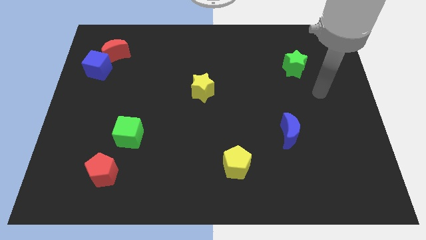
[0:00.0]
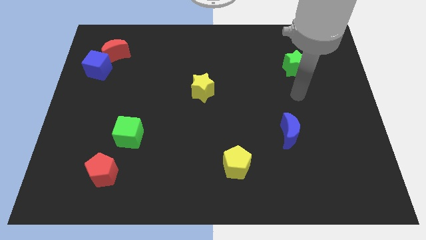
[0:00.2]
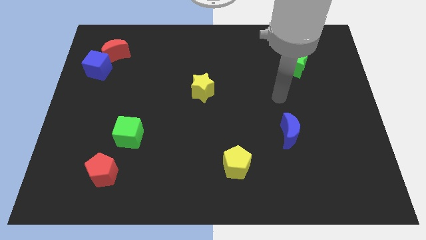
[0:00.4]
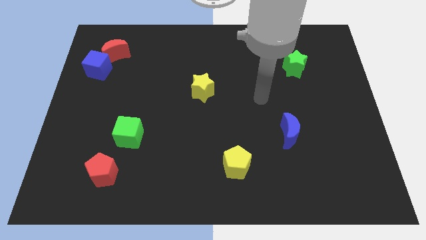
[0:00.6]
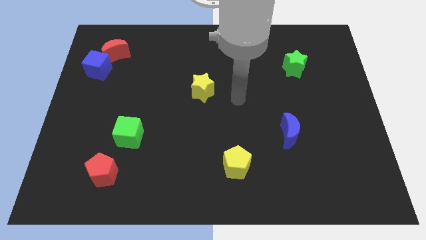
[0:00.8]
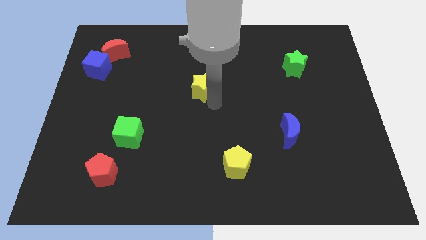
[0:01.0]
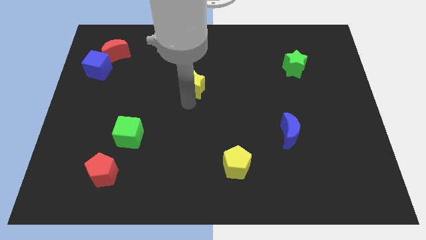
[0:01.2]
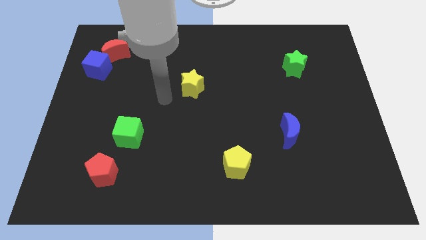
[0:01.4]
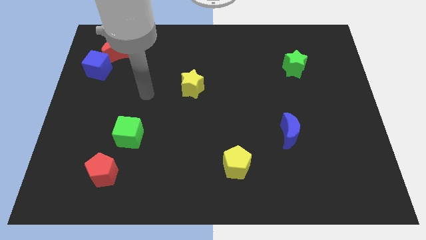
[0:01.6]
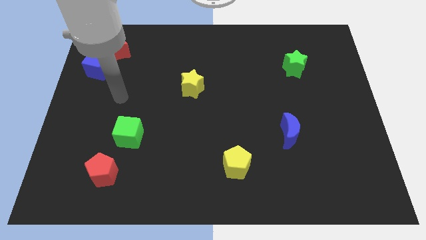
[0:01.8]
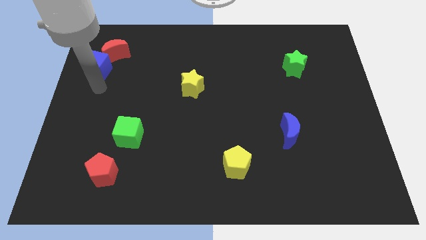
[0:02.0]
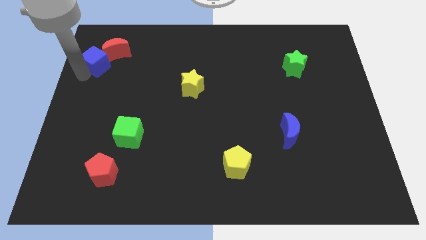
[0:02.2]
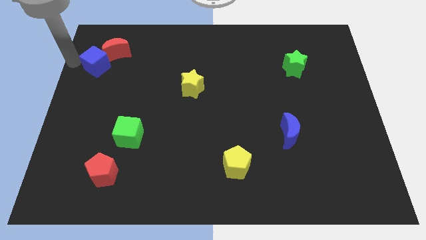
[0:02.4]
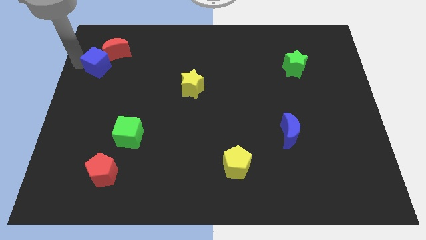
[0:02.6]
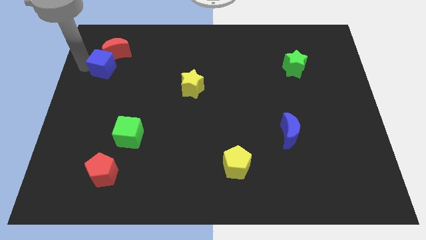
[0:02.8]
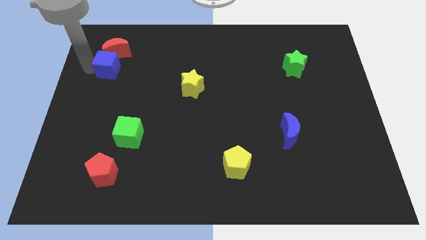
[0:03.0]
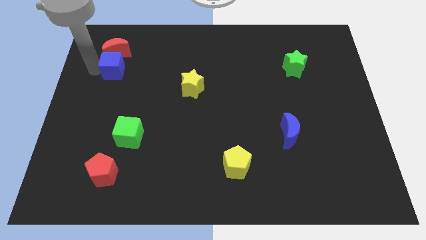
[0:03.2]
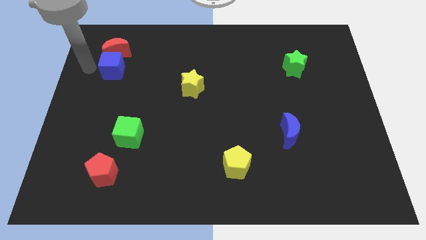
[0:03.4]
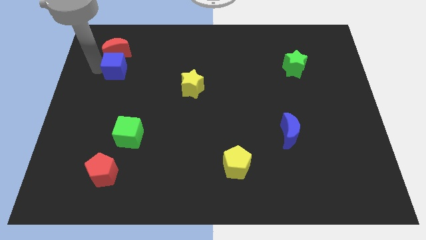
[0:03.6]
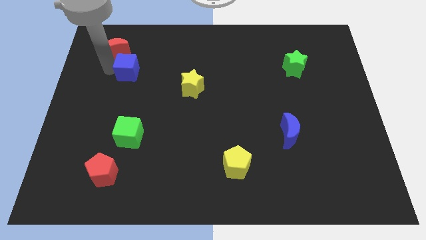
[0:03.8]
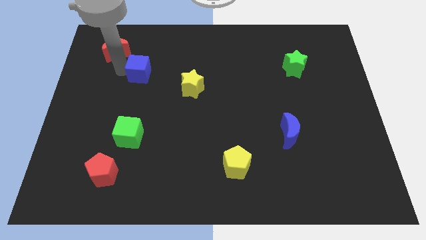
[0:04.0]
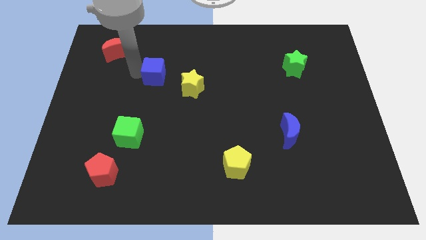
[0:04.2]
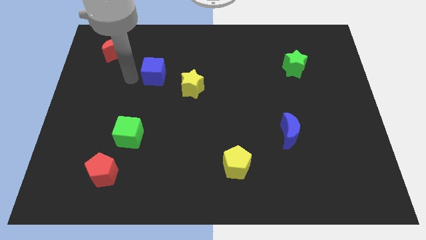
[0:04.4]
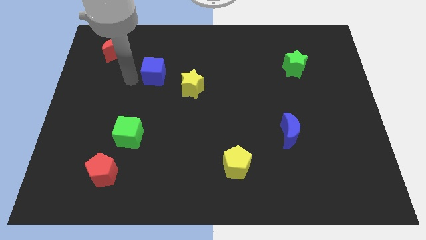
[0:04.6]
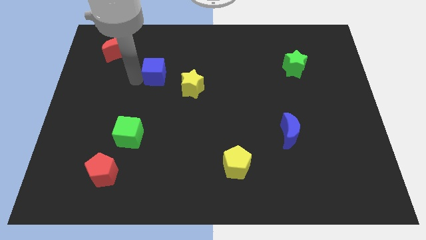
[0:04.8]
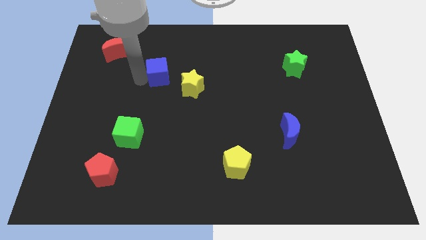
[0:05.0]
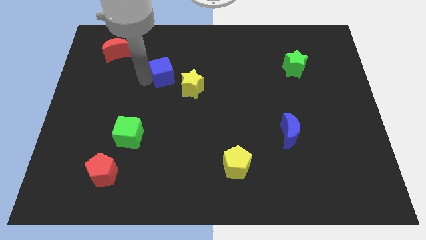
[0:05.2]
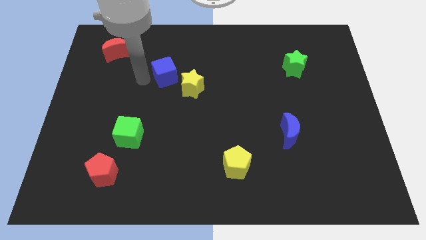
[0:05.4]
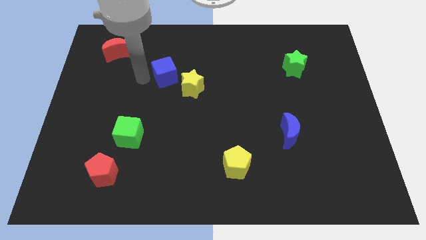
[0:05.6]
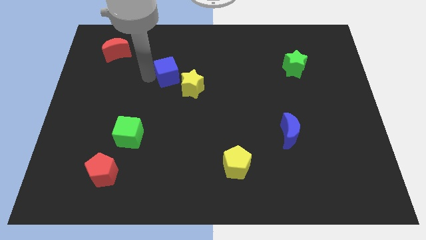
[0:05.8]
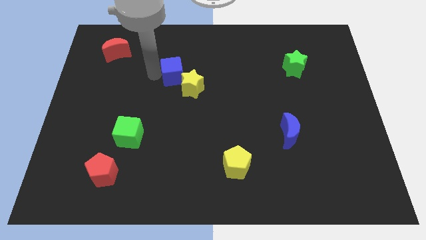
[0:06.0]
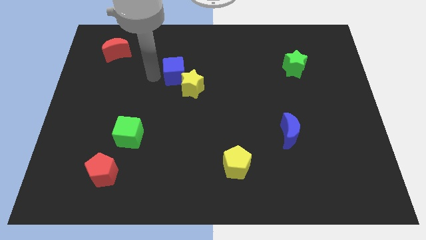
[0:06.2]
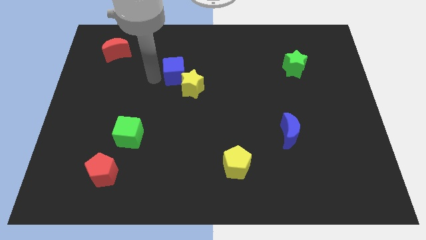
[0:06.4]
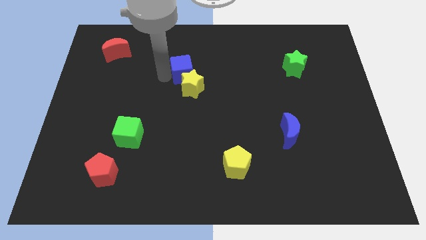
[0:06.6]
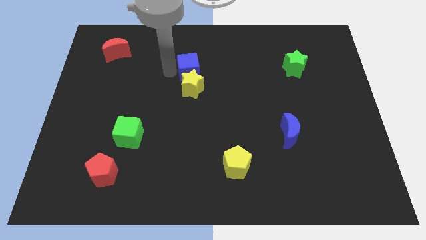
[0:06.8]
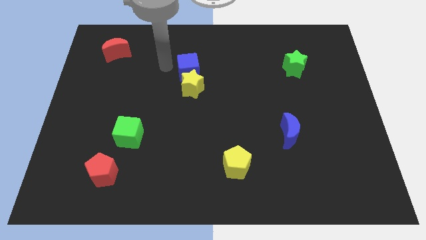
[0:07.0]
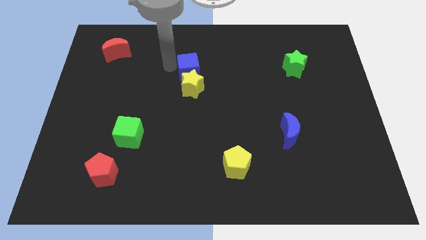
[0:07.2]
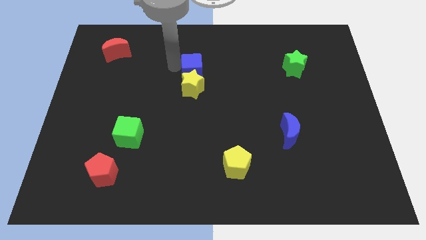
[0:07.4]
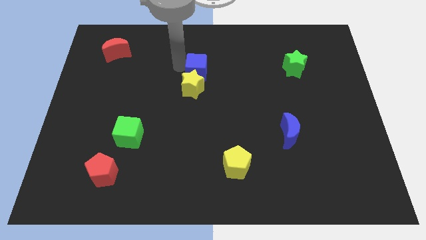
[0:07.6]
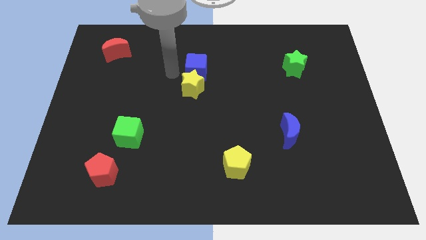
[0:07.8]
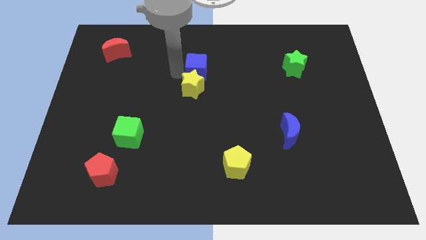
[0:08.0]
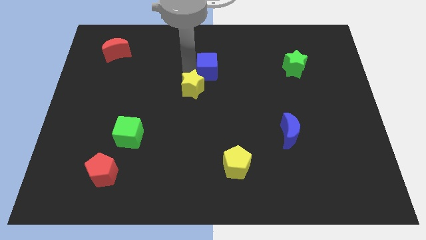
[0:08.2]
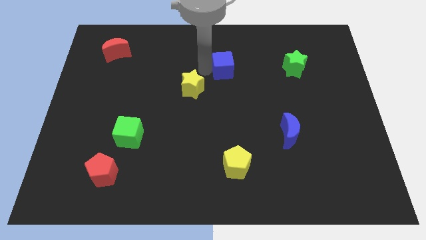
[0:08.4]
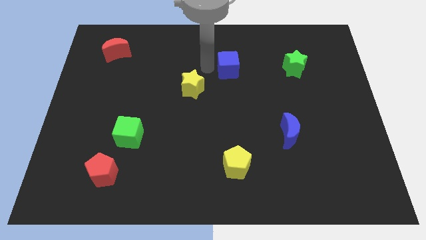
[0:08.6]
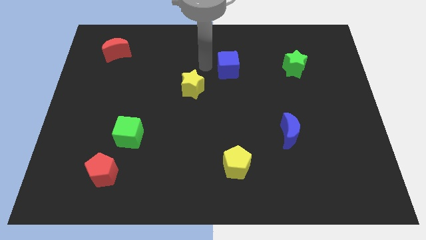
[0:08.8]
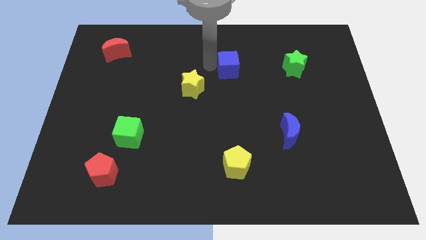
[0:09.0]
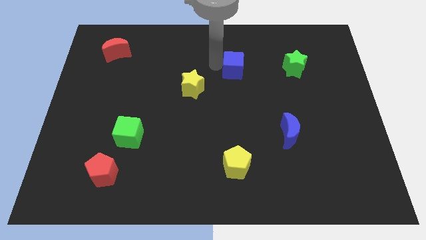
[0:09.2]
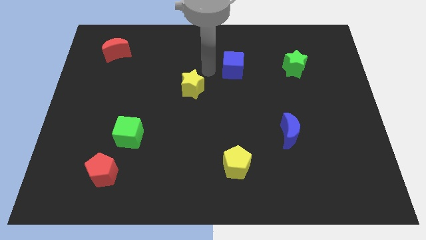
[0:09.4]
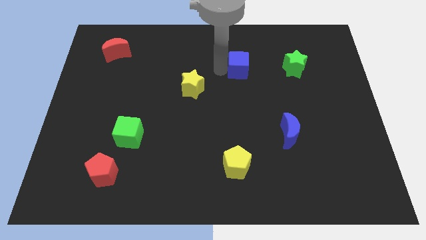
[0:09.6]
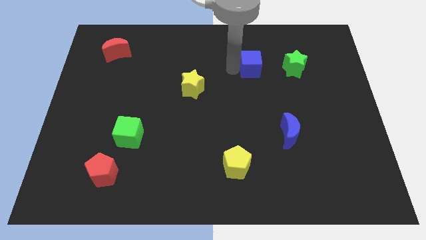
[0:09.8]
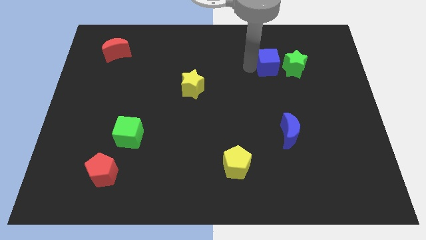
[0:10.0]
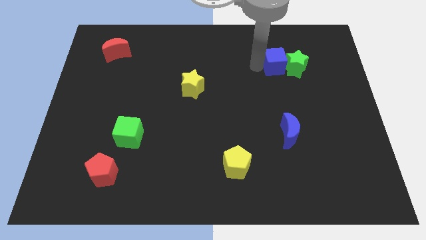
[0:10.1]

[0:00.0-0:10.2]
slide the blue cube to the green star

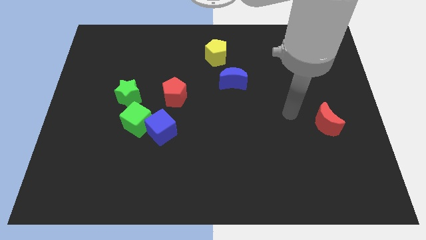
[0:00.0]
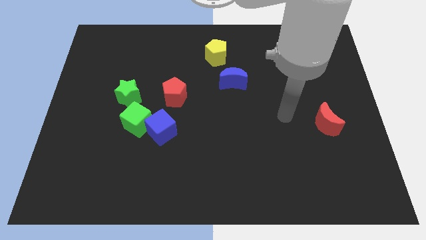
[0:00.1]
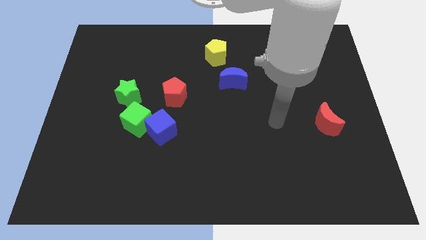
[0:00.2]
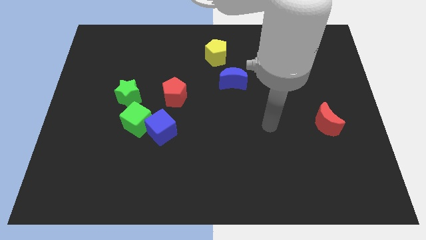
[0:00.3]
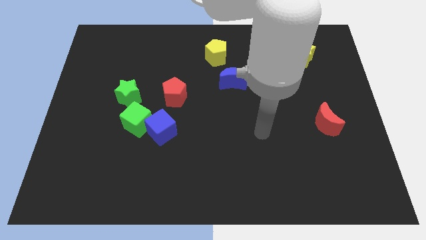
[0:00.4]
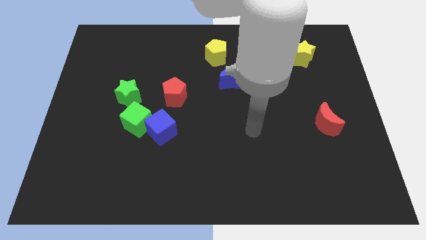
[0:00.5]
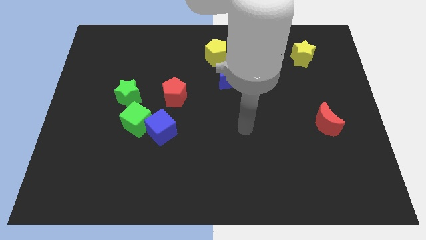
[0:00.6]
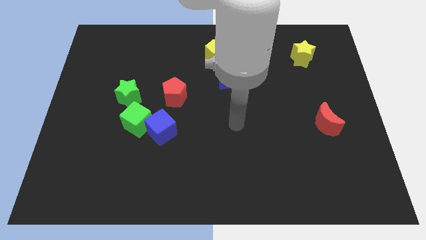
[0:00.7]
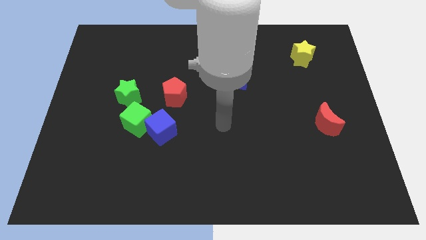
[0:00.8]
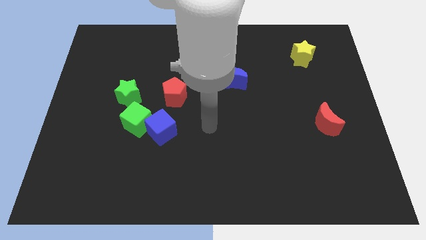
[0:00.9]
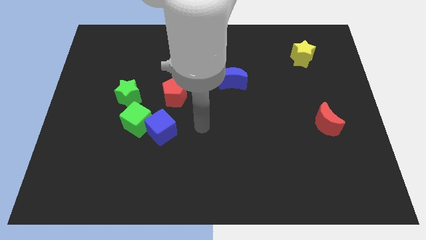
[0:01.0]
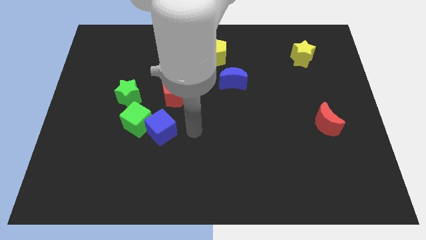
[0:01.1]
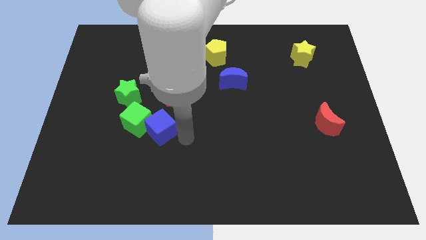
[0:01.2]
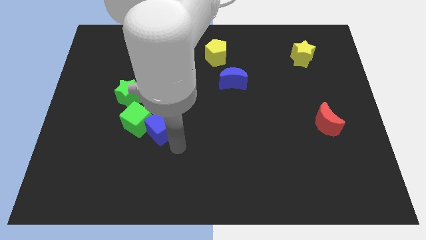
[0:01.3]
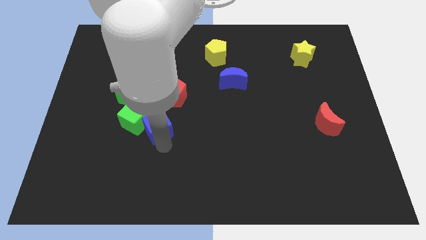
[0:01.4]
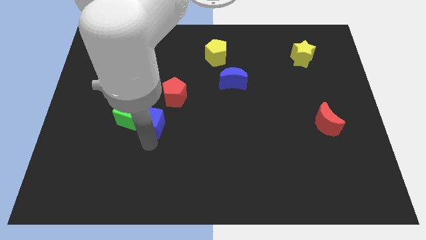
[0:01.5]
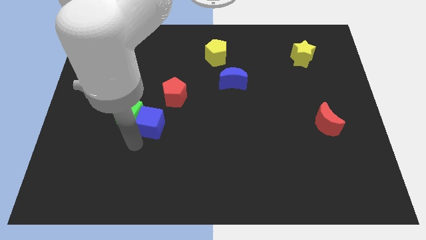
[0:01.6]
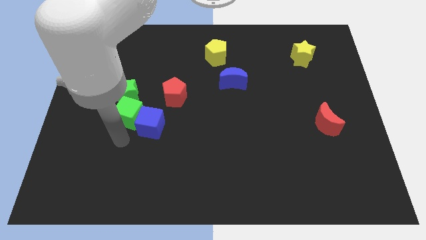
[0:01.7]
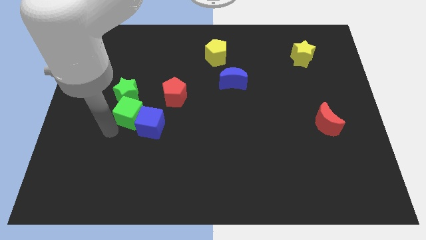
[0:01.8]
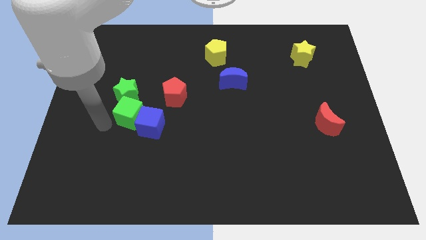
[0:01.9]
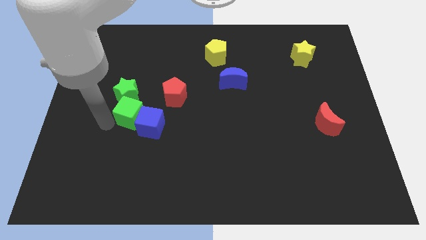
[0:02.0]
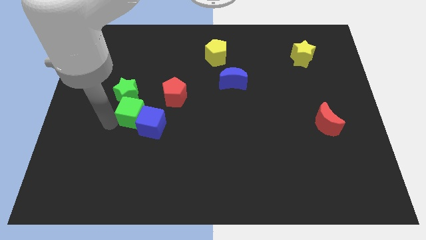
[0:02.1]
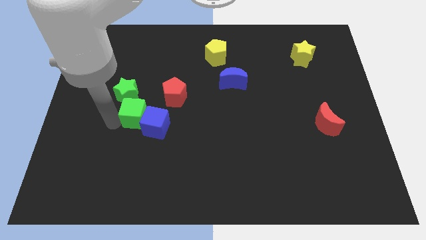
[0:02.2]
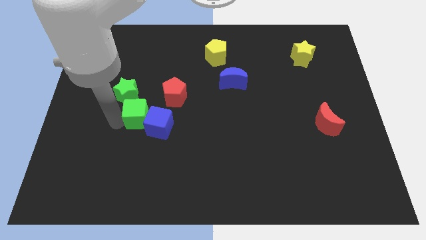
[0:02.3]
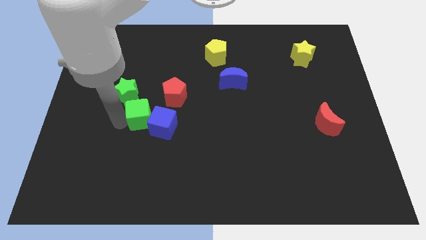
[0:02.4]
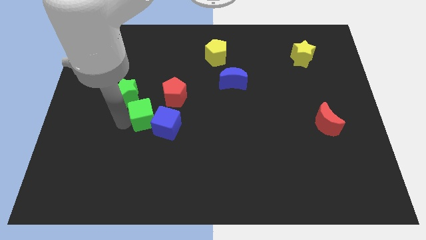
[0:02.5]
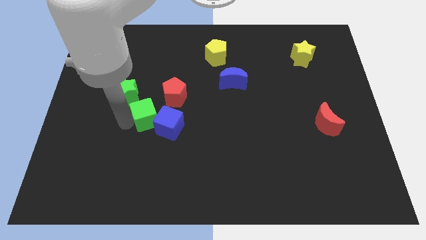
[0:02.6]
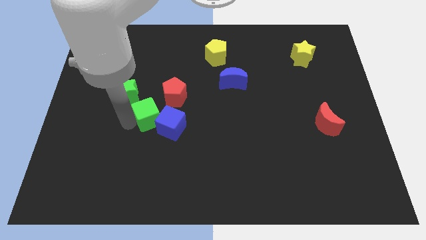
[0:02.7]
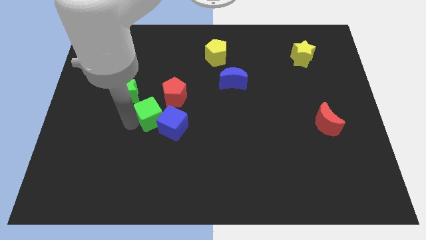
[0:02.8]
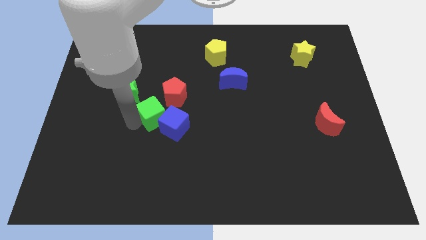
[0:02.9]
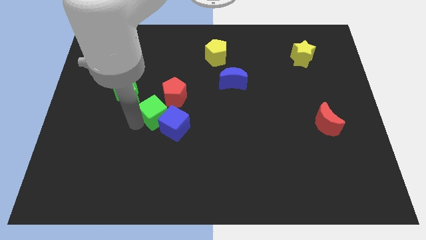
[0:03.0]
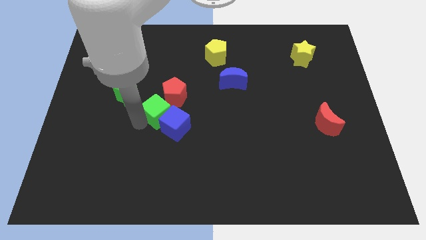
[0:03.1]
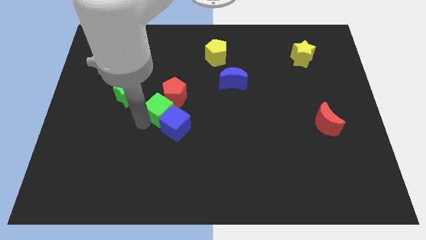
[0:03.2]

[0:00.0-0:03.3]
put the green cube to the red pentagon
